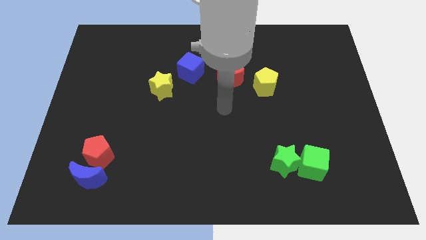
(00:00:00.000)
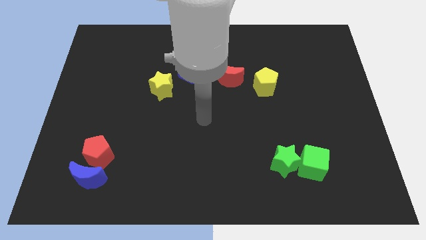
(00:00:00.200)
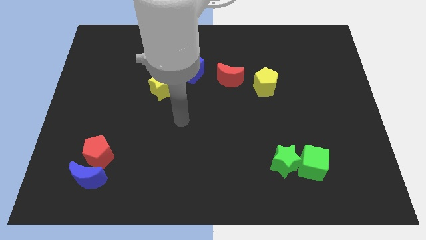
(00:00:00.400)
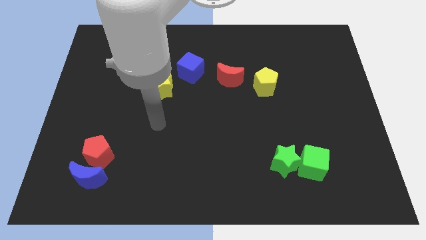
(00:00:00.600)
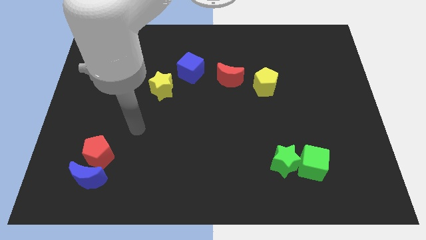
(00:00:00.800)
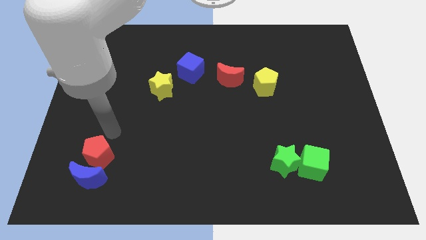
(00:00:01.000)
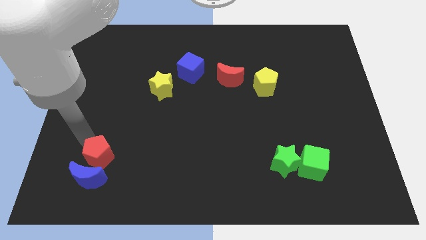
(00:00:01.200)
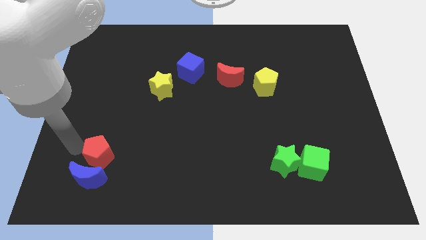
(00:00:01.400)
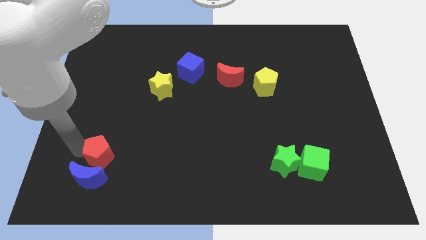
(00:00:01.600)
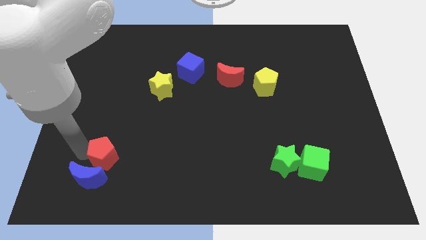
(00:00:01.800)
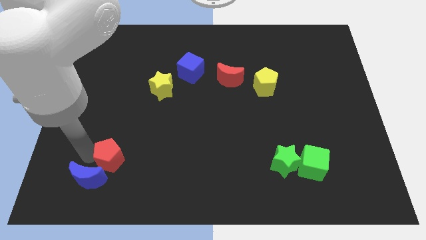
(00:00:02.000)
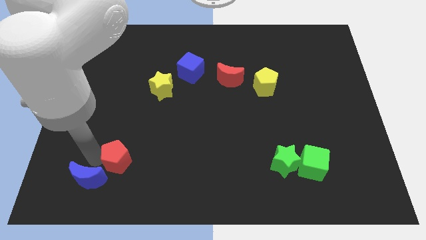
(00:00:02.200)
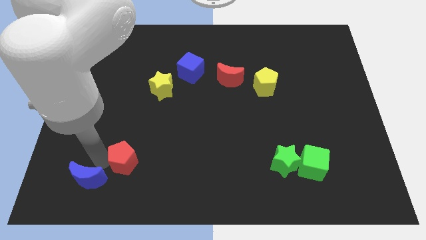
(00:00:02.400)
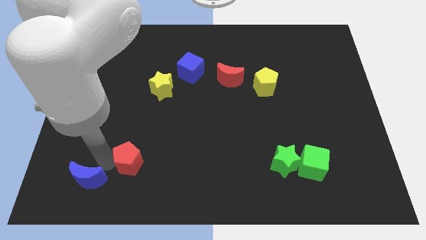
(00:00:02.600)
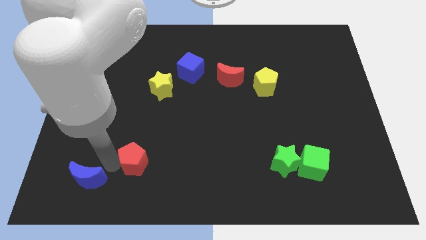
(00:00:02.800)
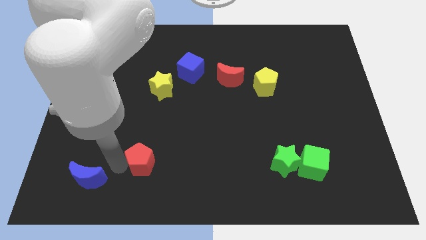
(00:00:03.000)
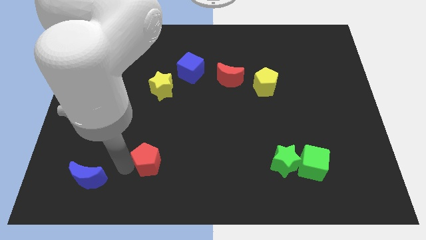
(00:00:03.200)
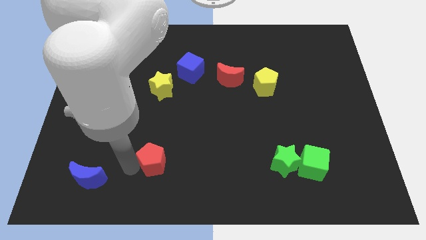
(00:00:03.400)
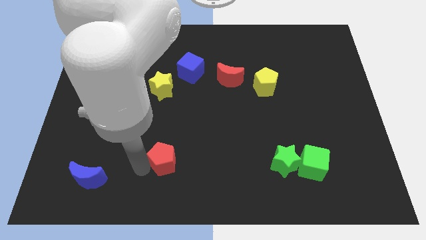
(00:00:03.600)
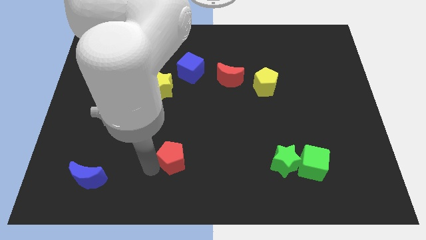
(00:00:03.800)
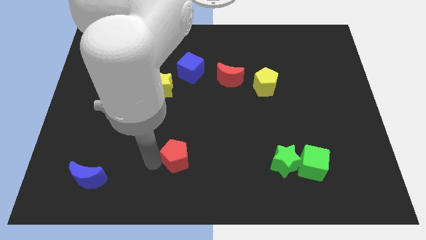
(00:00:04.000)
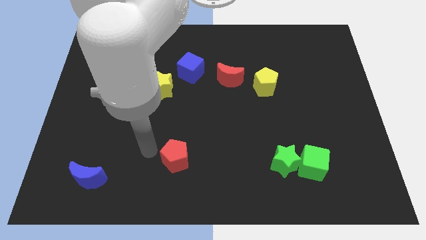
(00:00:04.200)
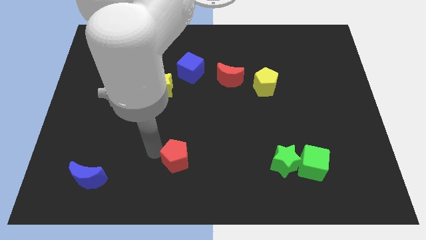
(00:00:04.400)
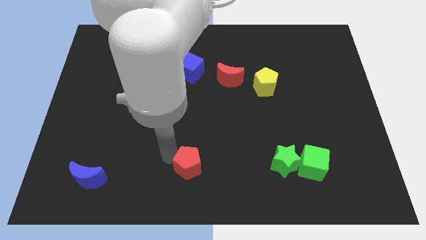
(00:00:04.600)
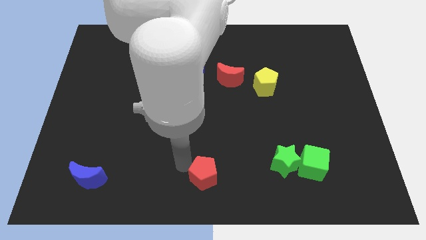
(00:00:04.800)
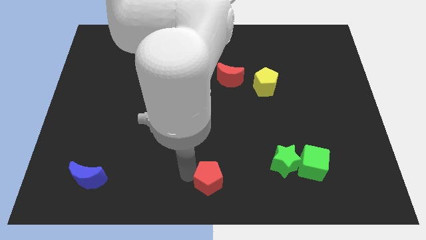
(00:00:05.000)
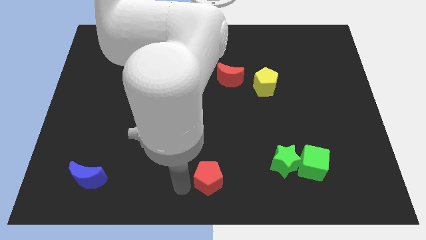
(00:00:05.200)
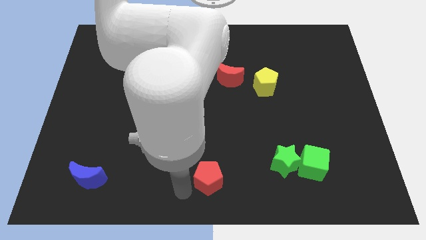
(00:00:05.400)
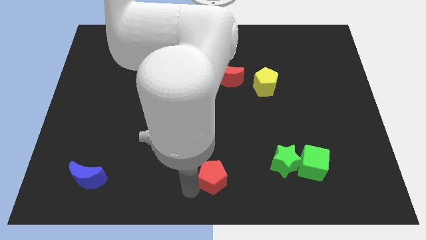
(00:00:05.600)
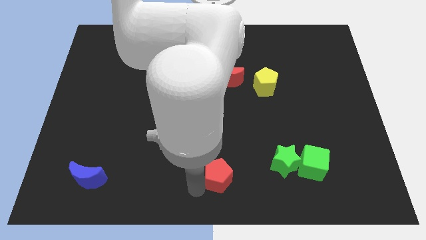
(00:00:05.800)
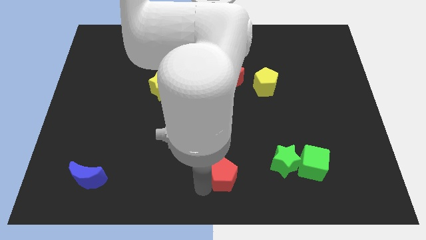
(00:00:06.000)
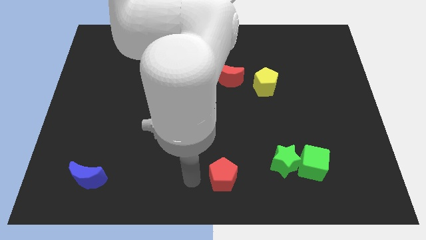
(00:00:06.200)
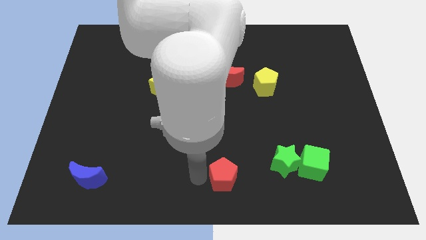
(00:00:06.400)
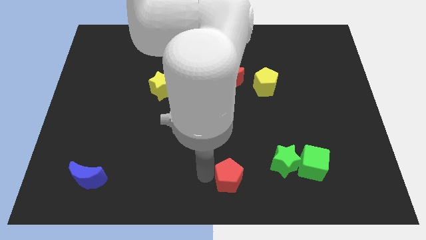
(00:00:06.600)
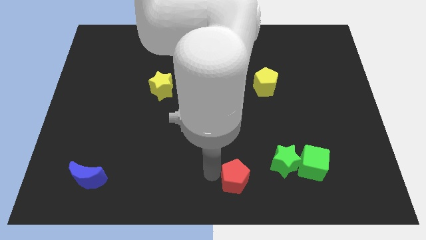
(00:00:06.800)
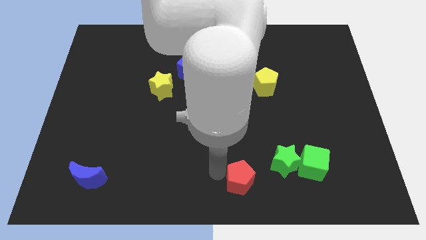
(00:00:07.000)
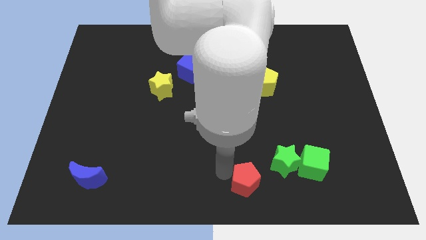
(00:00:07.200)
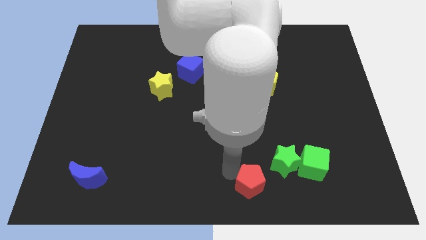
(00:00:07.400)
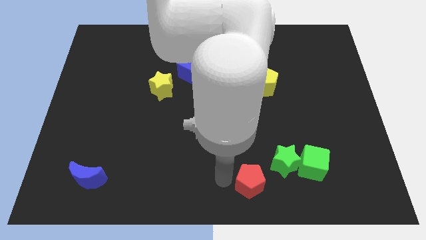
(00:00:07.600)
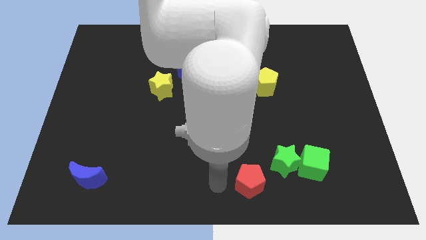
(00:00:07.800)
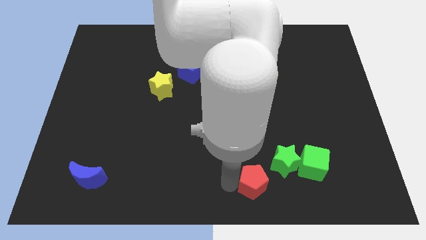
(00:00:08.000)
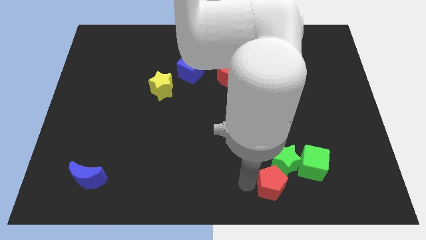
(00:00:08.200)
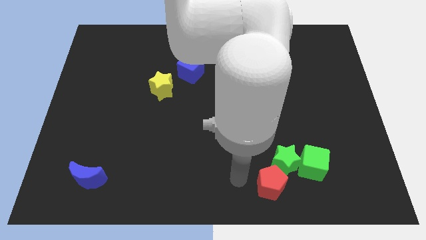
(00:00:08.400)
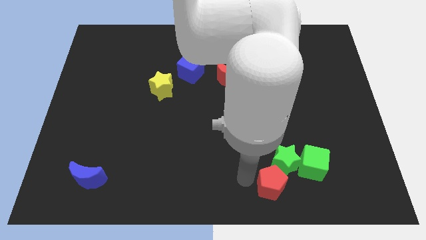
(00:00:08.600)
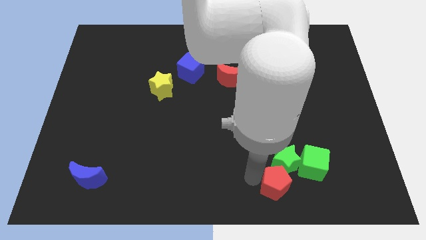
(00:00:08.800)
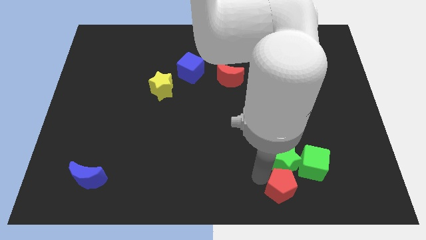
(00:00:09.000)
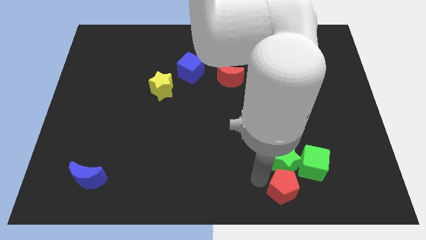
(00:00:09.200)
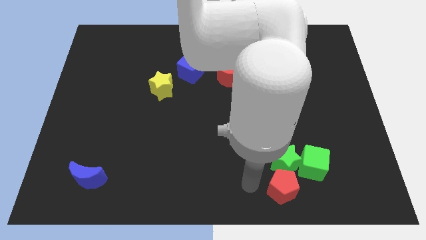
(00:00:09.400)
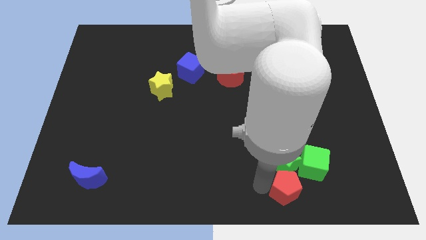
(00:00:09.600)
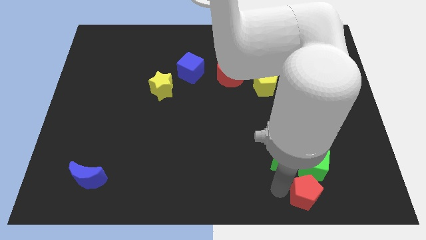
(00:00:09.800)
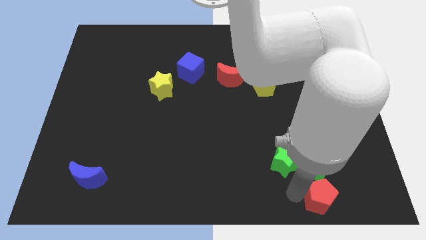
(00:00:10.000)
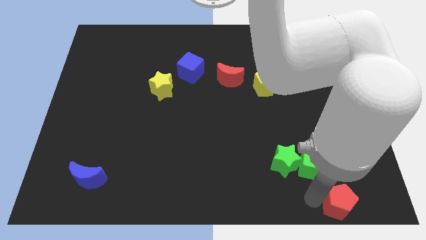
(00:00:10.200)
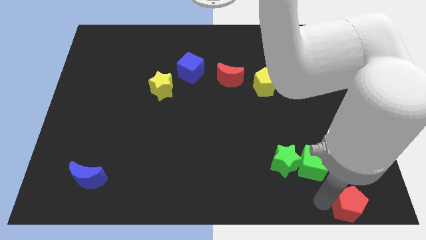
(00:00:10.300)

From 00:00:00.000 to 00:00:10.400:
put the red pentagon to the bottom right corner
